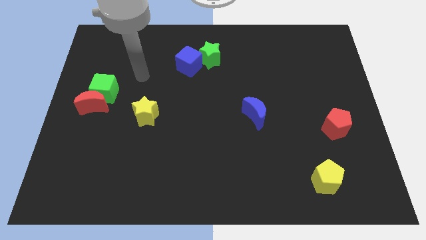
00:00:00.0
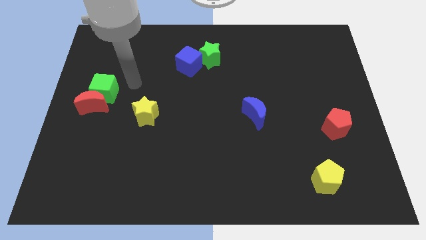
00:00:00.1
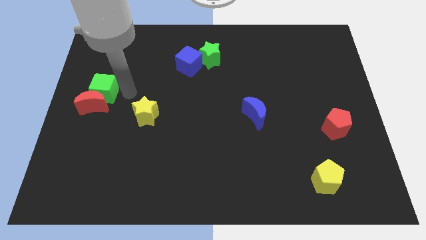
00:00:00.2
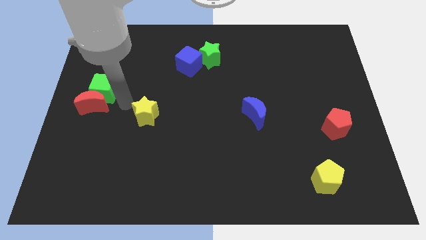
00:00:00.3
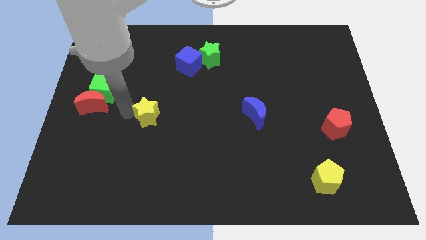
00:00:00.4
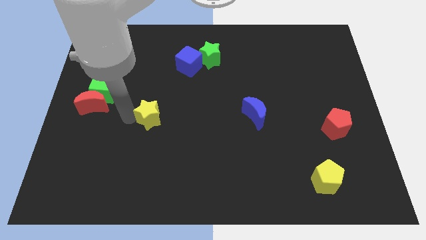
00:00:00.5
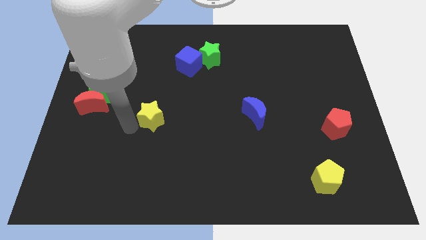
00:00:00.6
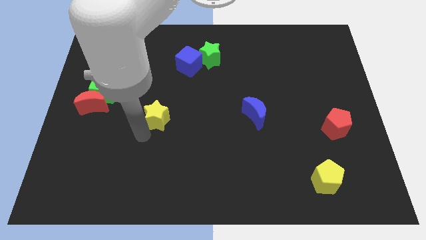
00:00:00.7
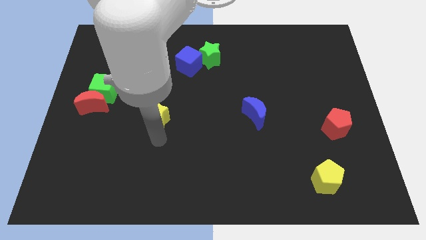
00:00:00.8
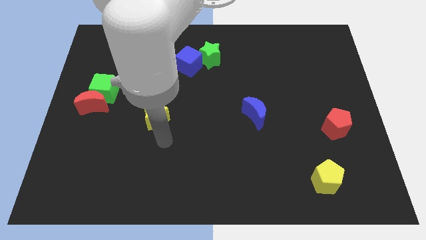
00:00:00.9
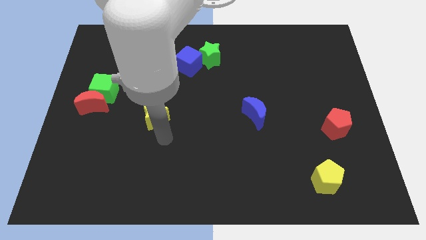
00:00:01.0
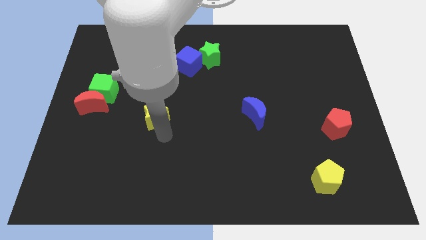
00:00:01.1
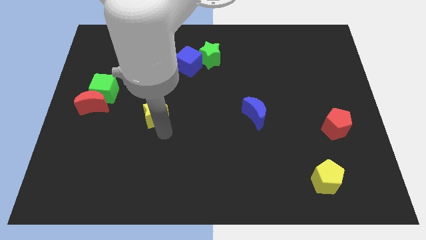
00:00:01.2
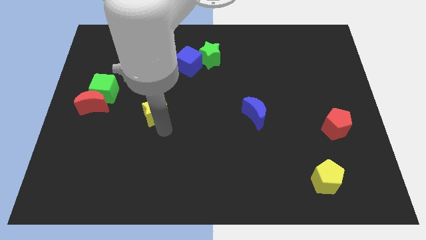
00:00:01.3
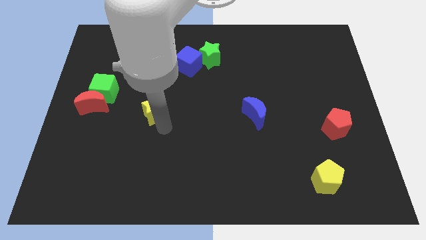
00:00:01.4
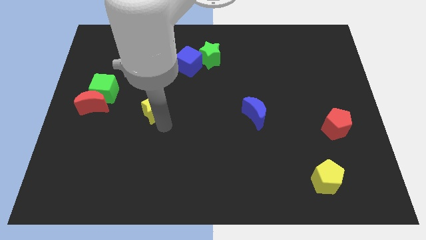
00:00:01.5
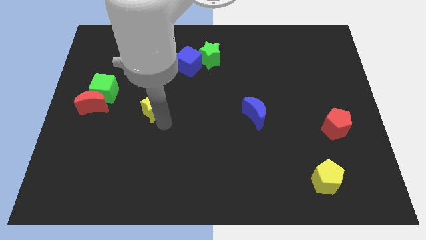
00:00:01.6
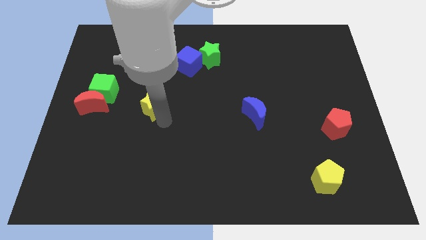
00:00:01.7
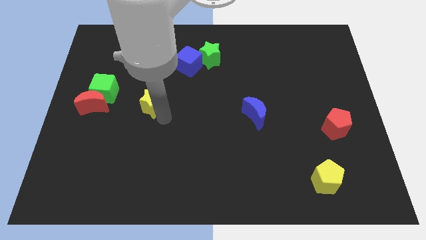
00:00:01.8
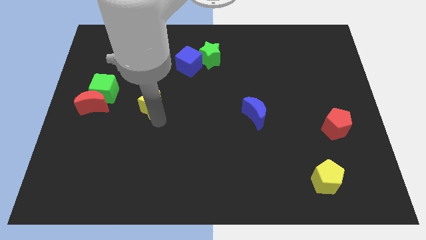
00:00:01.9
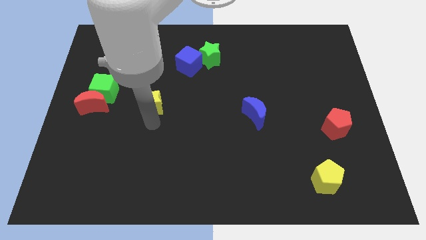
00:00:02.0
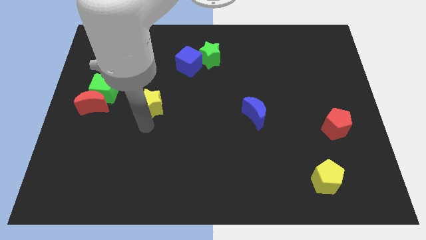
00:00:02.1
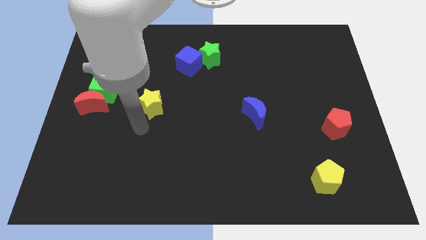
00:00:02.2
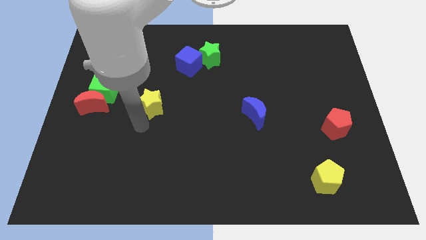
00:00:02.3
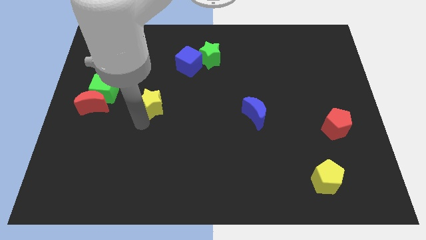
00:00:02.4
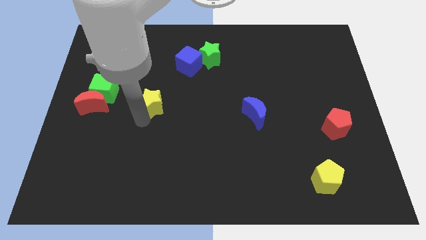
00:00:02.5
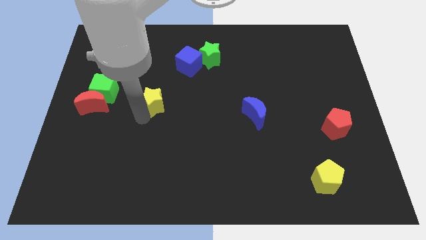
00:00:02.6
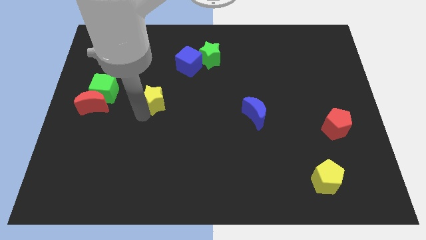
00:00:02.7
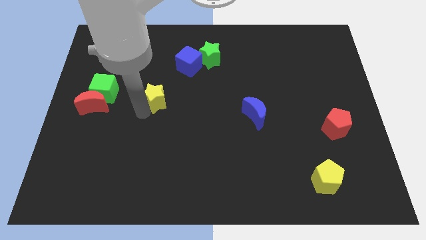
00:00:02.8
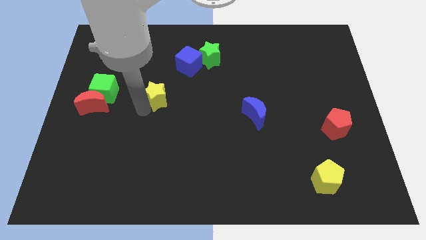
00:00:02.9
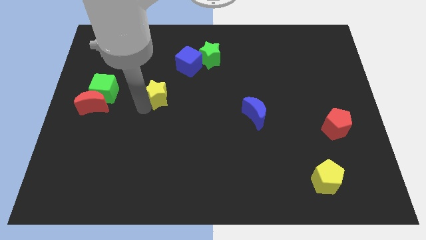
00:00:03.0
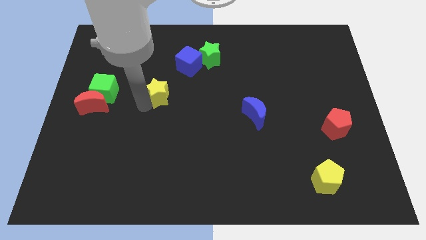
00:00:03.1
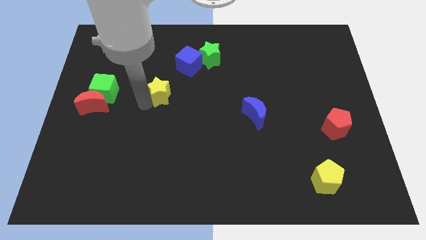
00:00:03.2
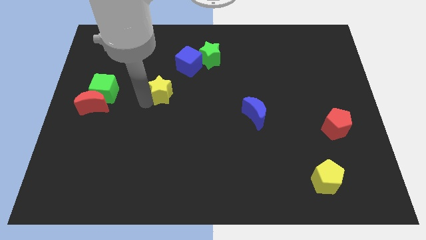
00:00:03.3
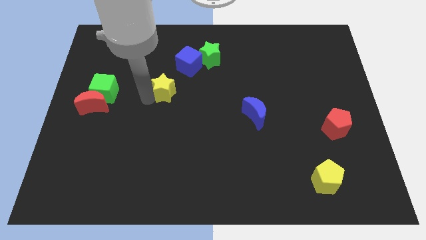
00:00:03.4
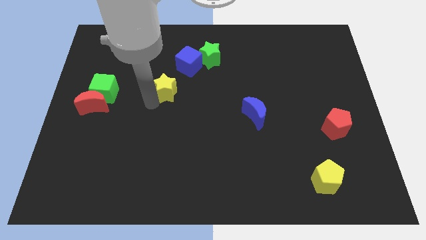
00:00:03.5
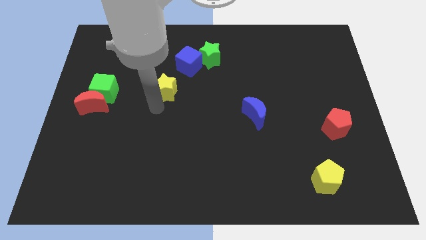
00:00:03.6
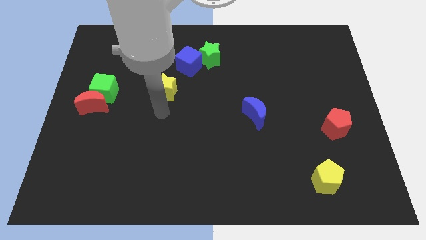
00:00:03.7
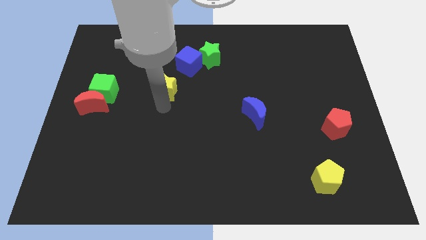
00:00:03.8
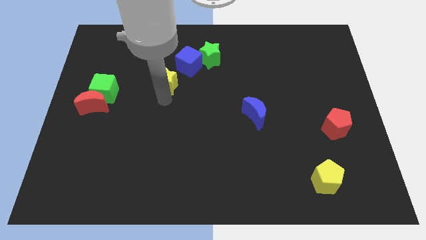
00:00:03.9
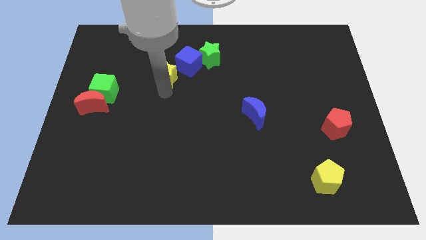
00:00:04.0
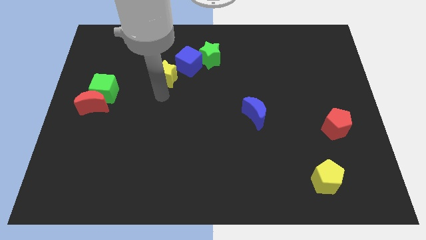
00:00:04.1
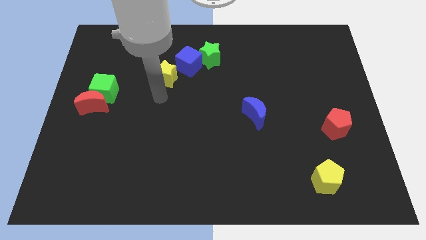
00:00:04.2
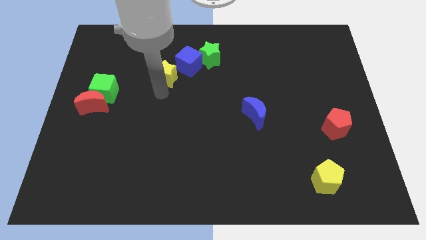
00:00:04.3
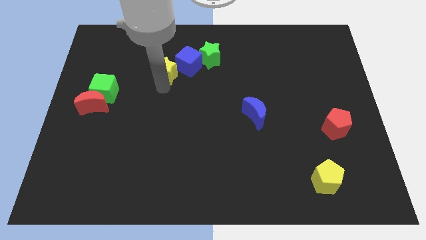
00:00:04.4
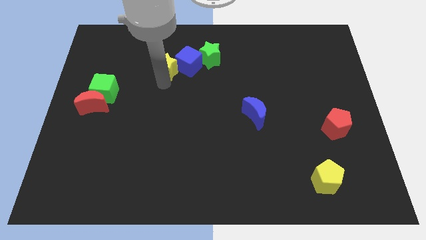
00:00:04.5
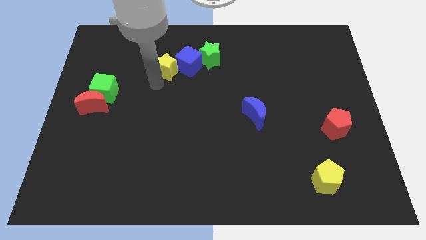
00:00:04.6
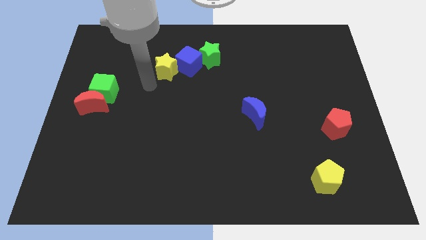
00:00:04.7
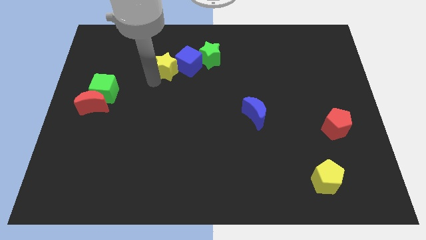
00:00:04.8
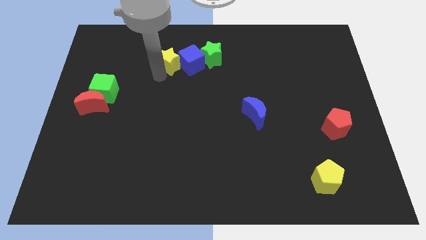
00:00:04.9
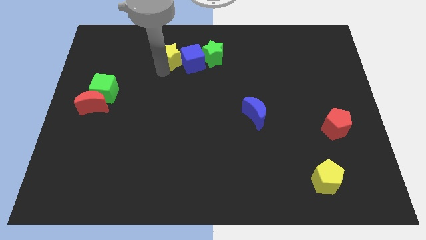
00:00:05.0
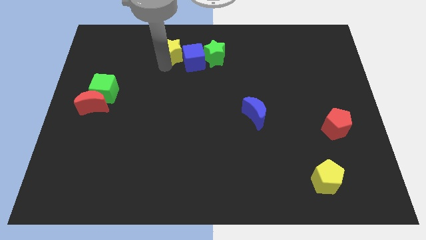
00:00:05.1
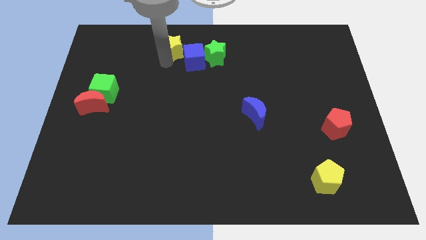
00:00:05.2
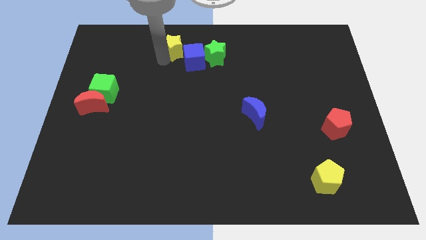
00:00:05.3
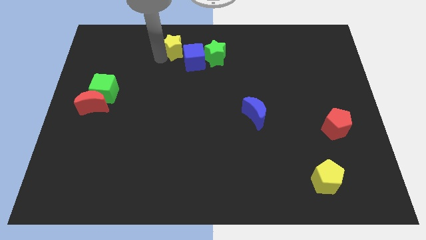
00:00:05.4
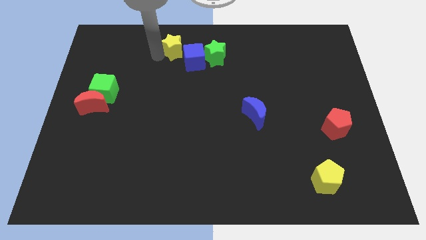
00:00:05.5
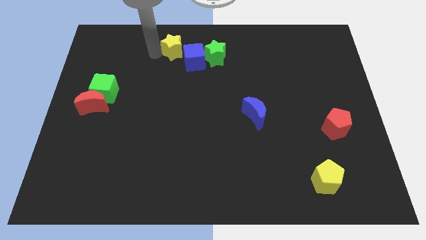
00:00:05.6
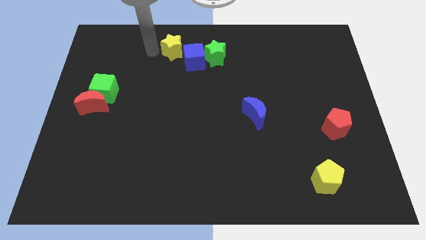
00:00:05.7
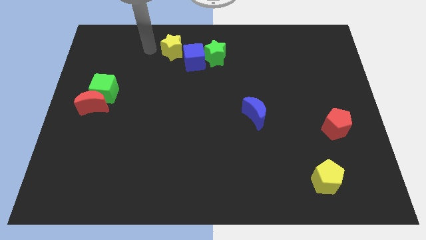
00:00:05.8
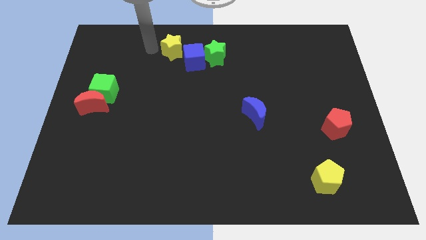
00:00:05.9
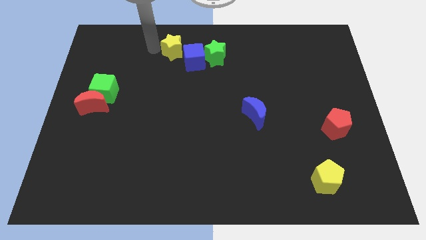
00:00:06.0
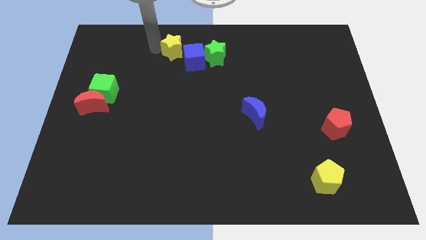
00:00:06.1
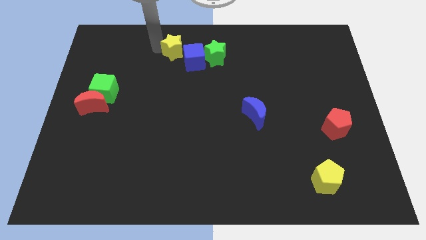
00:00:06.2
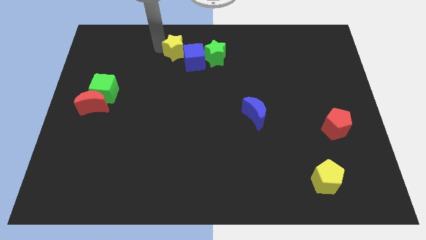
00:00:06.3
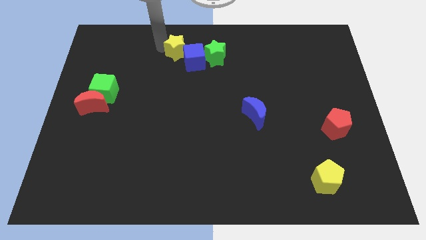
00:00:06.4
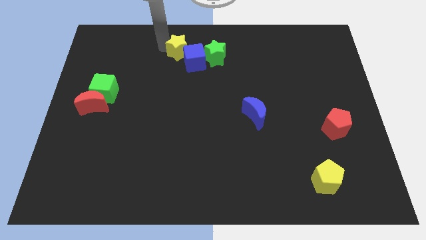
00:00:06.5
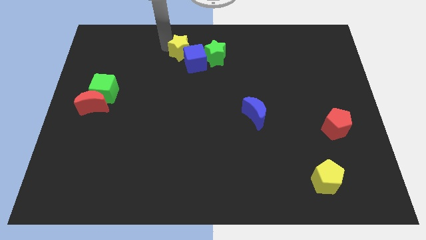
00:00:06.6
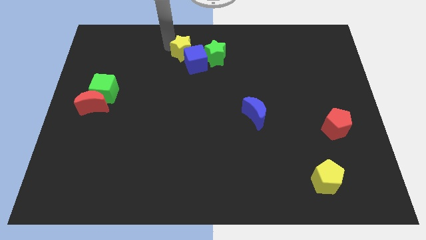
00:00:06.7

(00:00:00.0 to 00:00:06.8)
slide the yellow star to the top

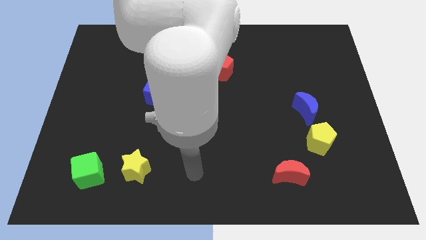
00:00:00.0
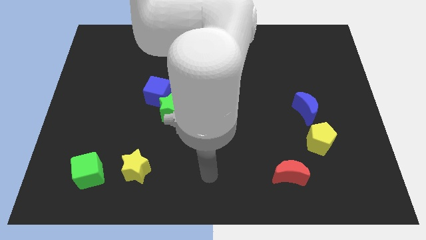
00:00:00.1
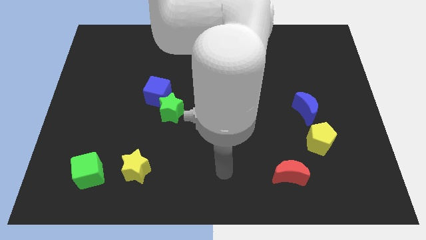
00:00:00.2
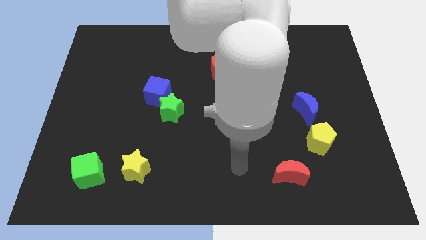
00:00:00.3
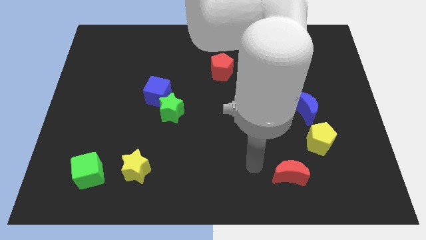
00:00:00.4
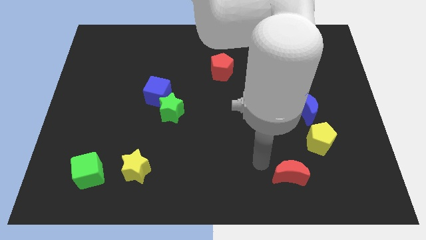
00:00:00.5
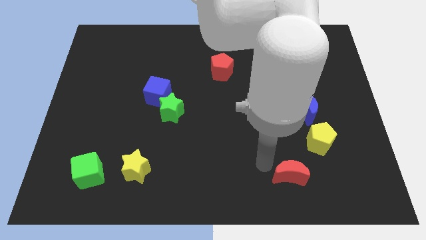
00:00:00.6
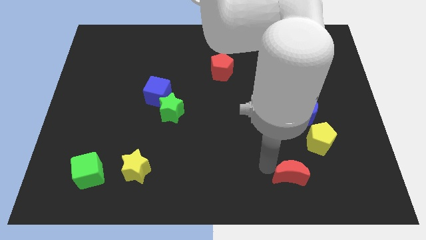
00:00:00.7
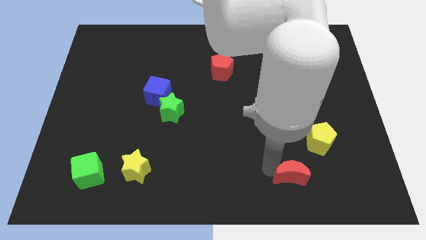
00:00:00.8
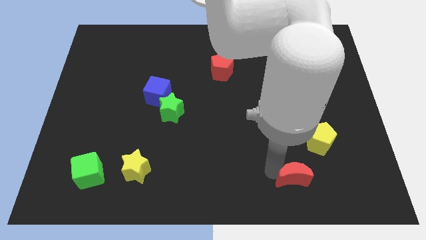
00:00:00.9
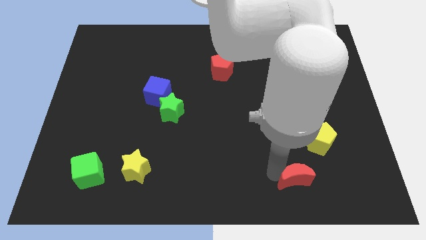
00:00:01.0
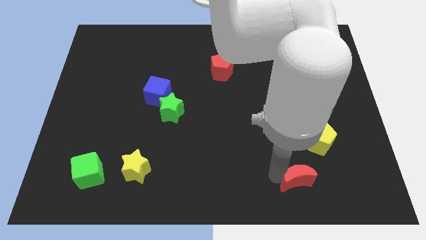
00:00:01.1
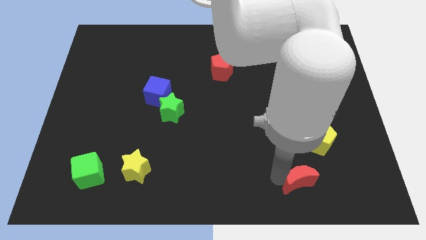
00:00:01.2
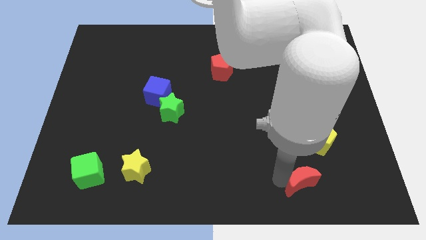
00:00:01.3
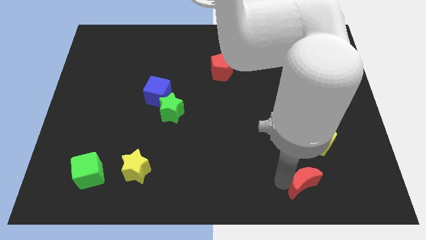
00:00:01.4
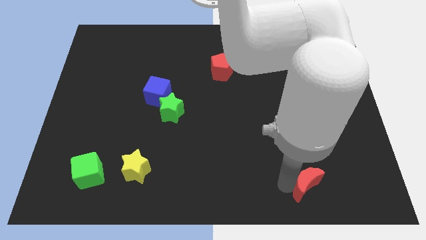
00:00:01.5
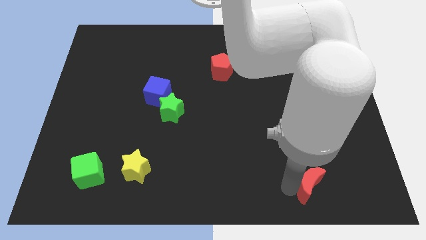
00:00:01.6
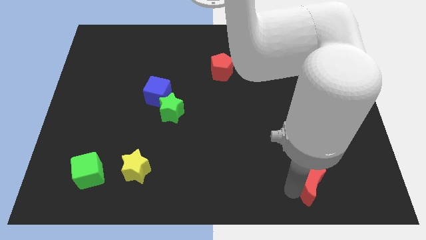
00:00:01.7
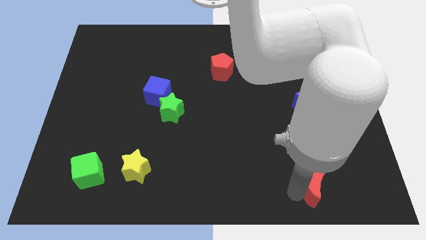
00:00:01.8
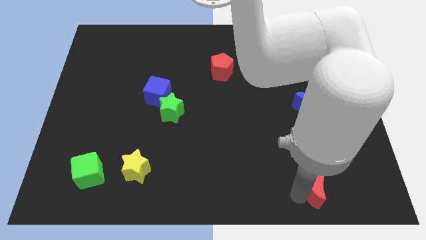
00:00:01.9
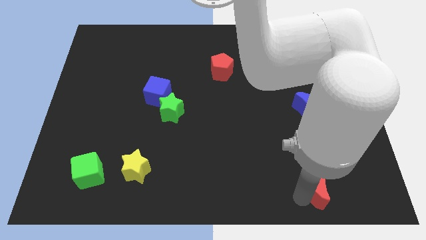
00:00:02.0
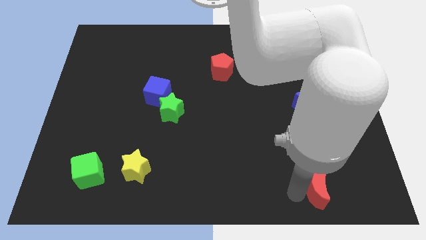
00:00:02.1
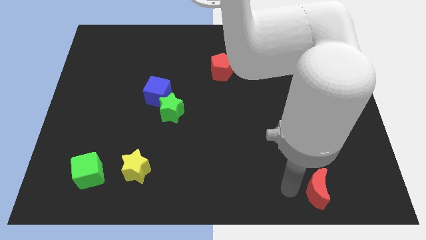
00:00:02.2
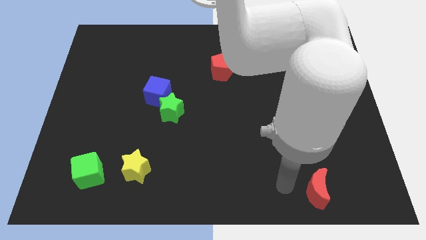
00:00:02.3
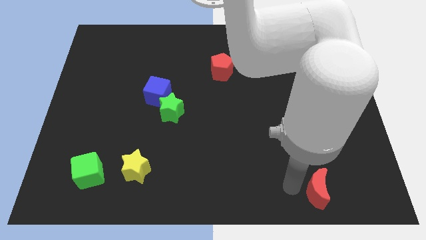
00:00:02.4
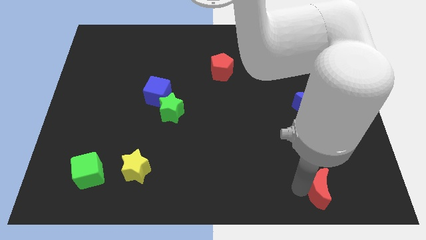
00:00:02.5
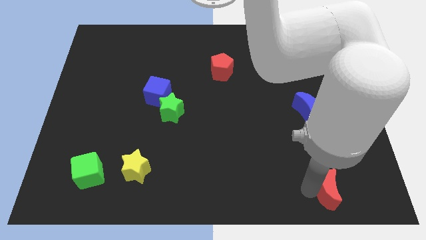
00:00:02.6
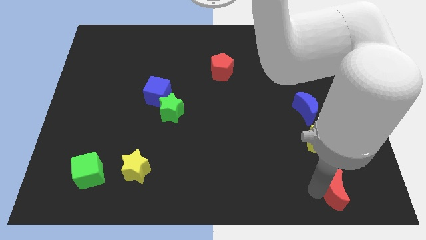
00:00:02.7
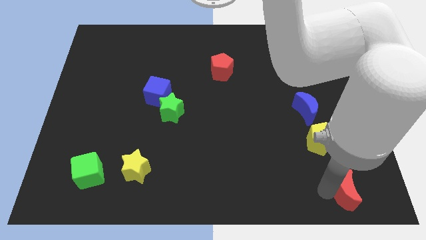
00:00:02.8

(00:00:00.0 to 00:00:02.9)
push the red moon to the bottom right
